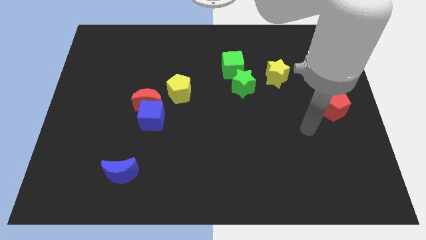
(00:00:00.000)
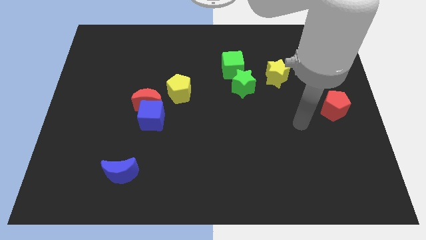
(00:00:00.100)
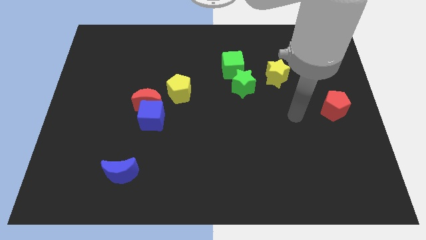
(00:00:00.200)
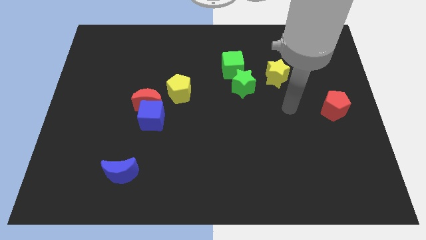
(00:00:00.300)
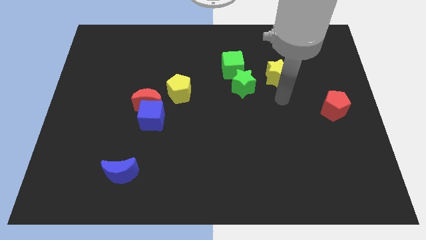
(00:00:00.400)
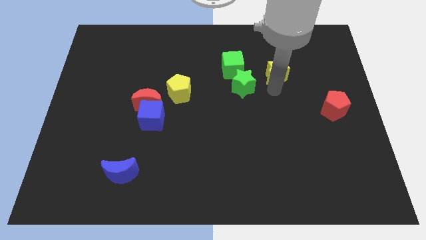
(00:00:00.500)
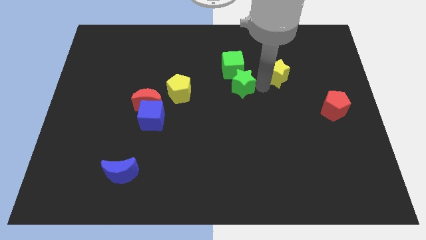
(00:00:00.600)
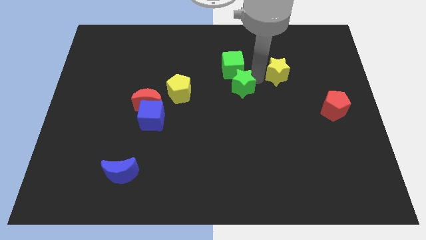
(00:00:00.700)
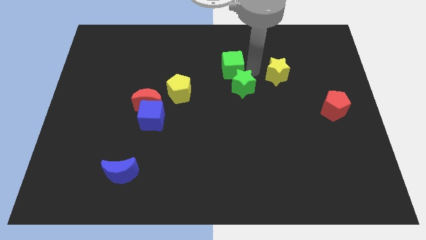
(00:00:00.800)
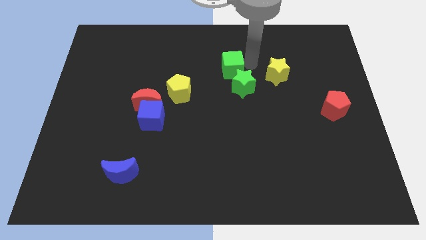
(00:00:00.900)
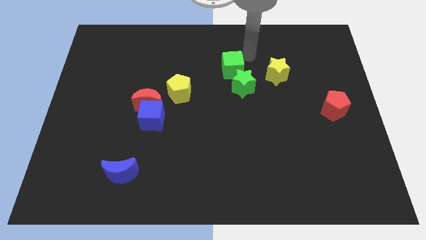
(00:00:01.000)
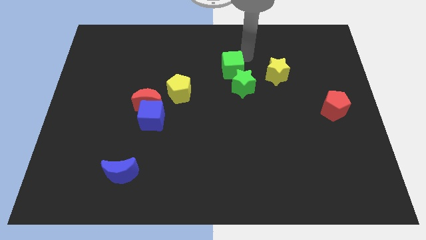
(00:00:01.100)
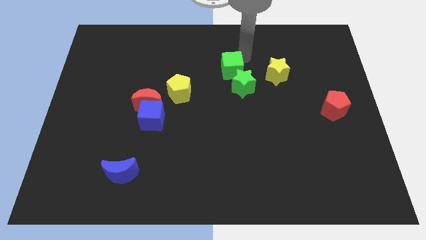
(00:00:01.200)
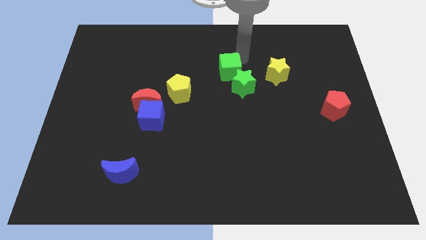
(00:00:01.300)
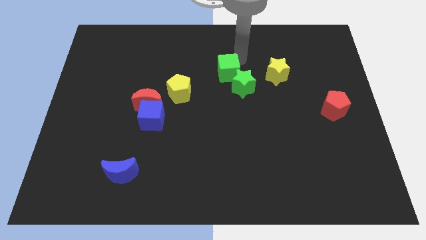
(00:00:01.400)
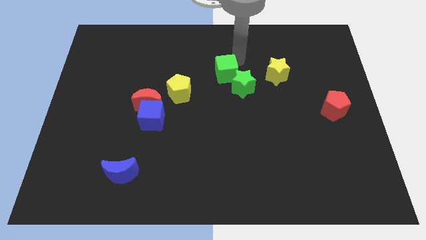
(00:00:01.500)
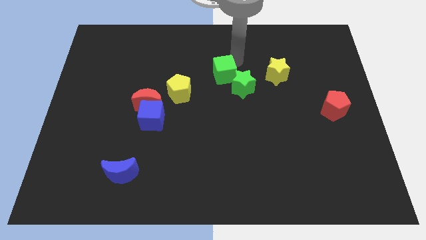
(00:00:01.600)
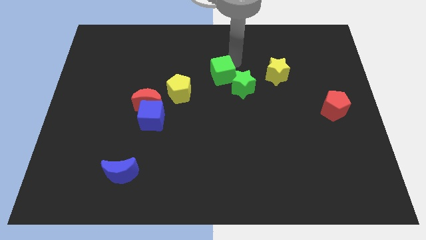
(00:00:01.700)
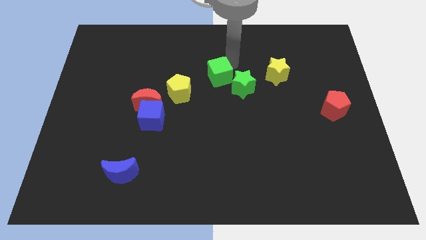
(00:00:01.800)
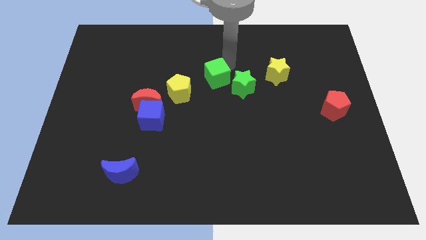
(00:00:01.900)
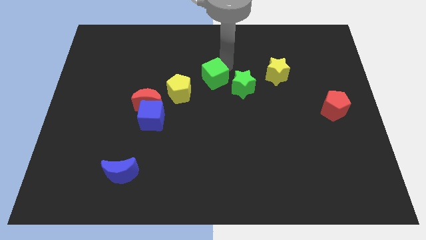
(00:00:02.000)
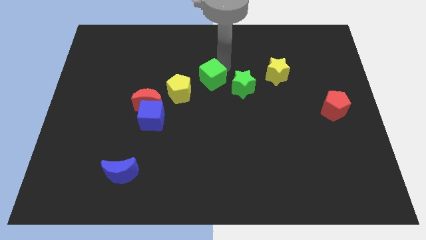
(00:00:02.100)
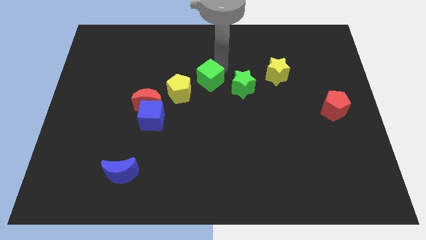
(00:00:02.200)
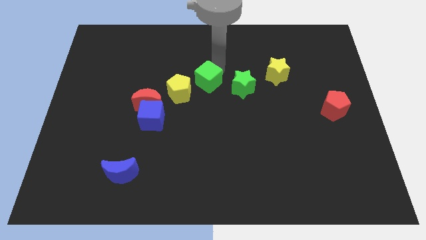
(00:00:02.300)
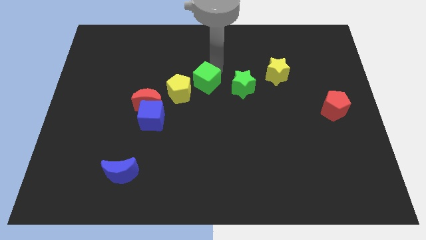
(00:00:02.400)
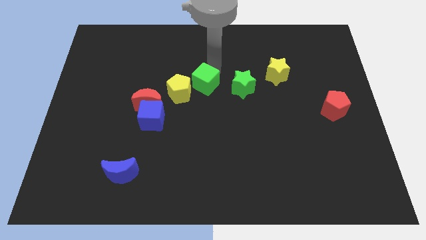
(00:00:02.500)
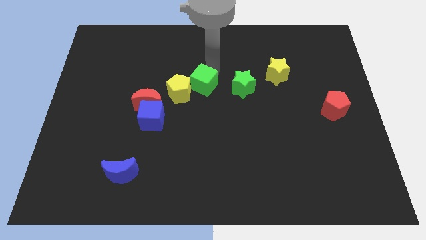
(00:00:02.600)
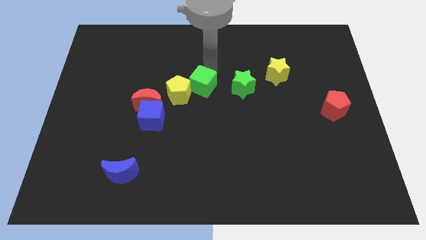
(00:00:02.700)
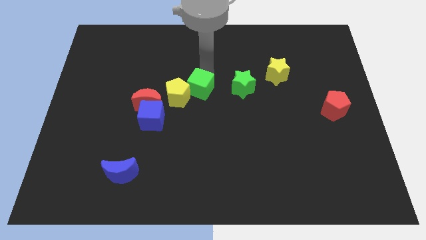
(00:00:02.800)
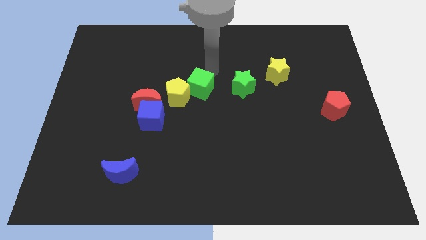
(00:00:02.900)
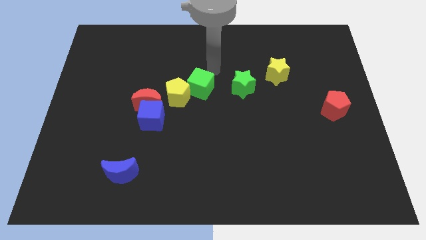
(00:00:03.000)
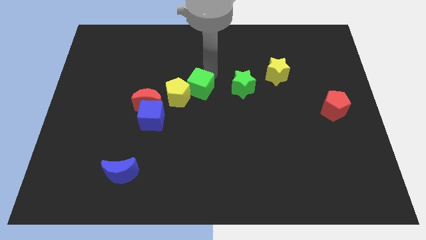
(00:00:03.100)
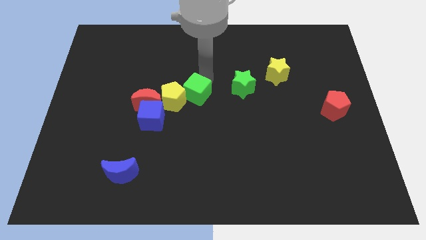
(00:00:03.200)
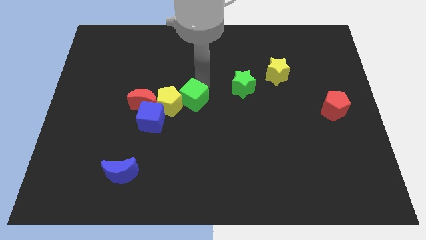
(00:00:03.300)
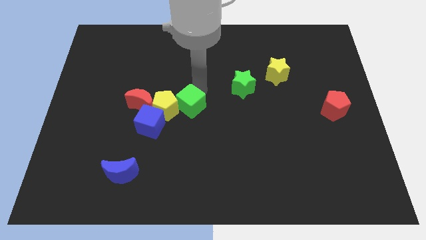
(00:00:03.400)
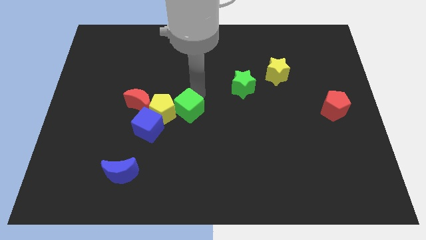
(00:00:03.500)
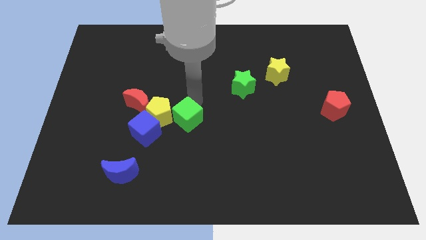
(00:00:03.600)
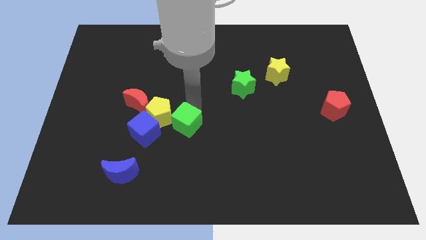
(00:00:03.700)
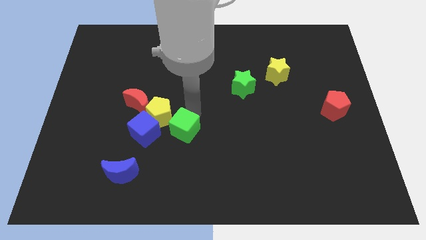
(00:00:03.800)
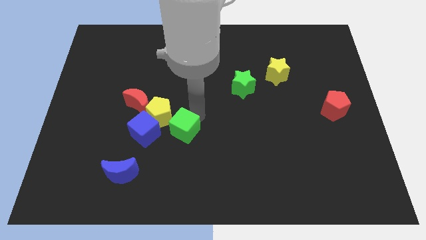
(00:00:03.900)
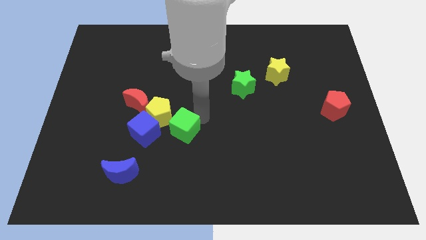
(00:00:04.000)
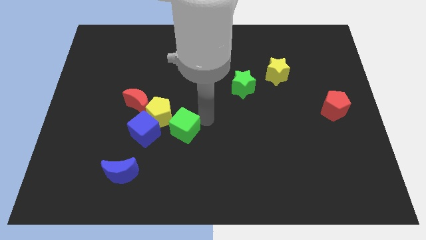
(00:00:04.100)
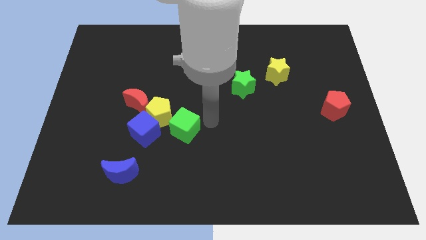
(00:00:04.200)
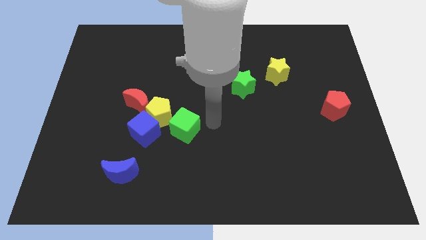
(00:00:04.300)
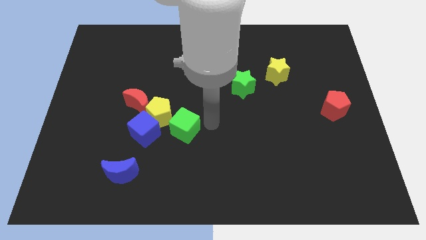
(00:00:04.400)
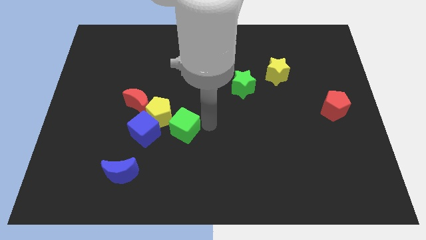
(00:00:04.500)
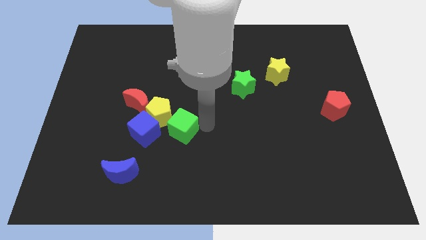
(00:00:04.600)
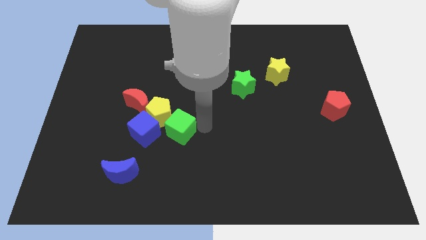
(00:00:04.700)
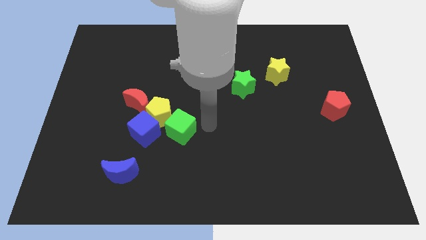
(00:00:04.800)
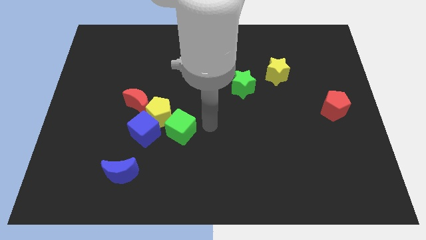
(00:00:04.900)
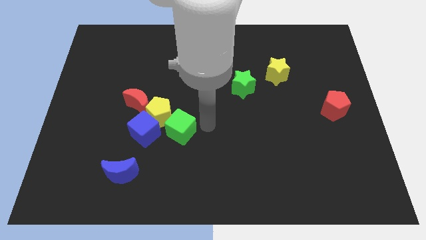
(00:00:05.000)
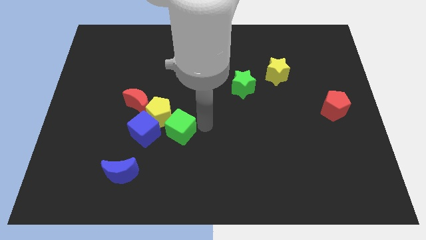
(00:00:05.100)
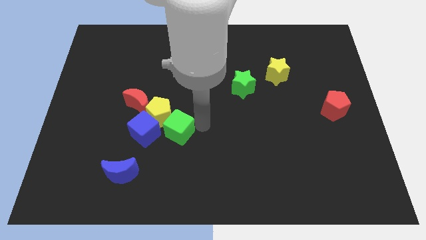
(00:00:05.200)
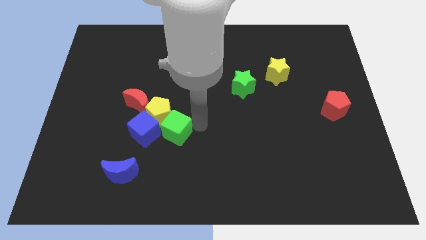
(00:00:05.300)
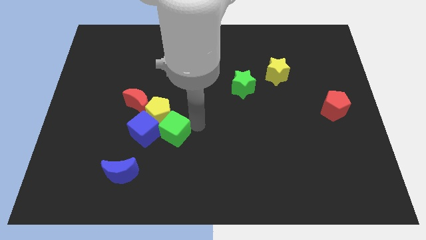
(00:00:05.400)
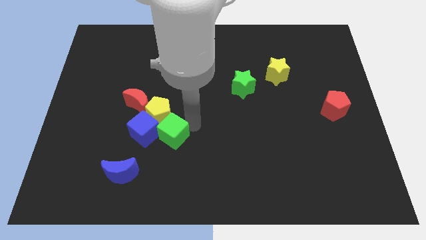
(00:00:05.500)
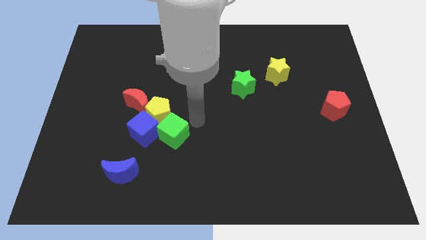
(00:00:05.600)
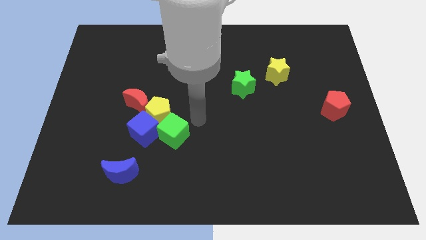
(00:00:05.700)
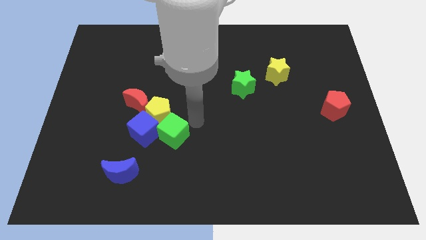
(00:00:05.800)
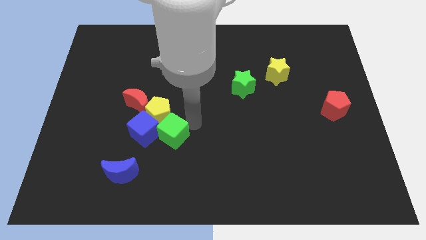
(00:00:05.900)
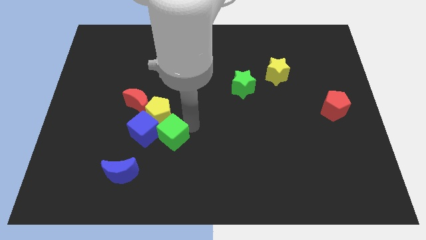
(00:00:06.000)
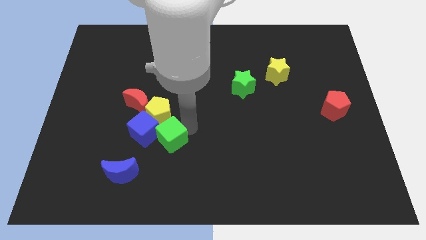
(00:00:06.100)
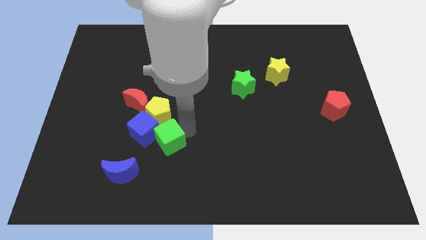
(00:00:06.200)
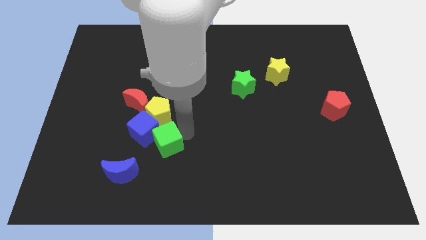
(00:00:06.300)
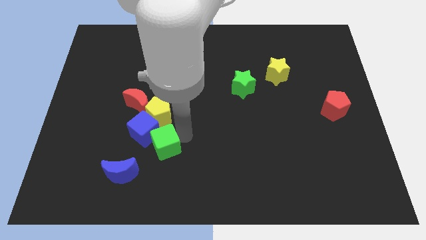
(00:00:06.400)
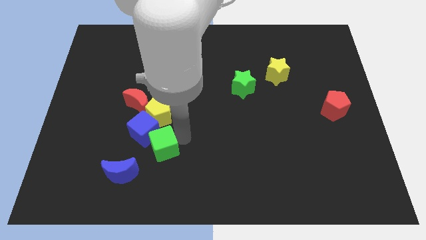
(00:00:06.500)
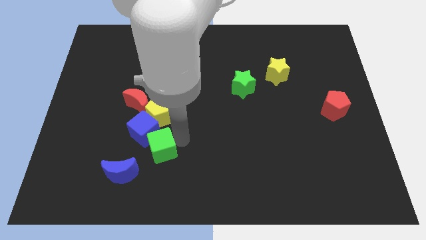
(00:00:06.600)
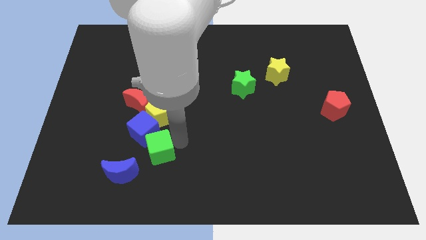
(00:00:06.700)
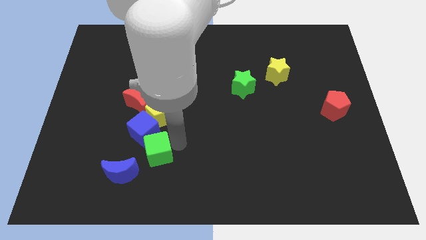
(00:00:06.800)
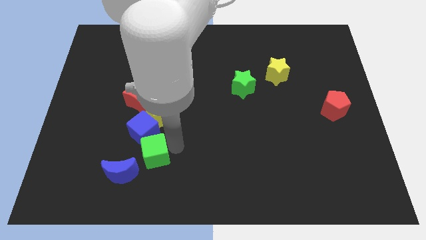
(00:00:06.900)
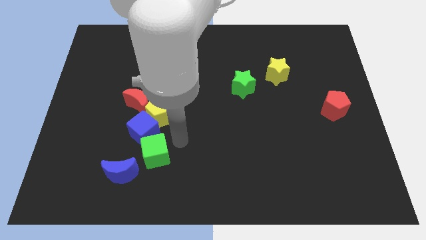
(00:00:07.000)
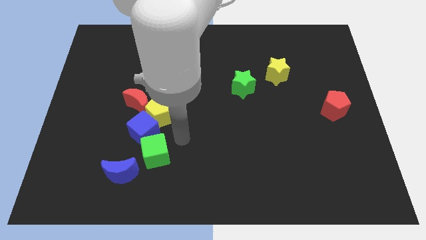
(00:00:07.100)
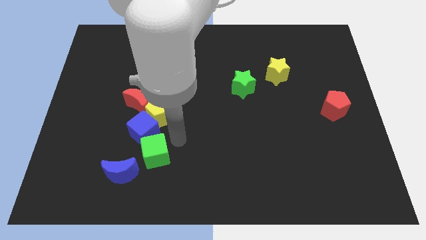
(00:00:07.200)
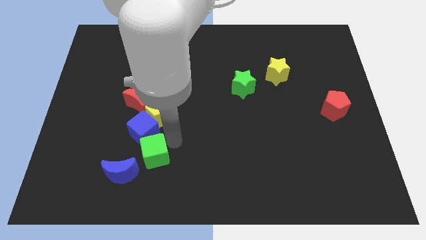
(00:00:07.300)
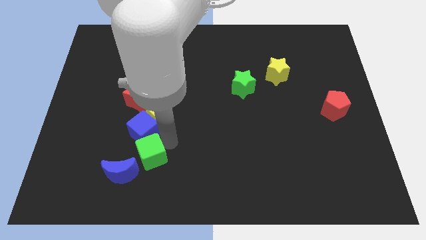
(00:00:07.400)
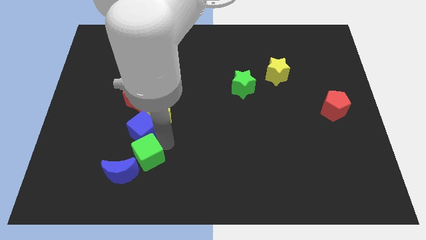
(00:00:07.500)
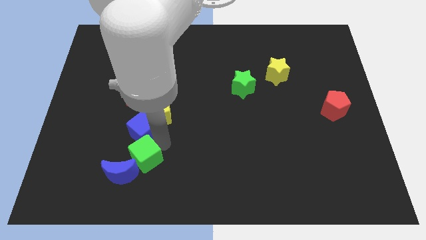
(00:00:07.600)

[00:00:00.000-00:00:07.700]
push the green cube next to the blue moon
